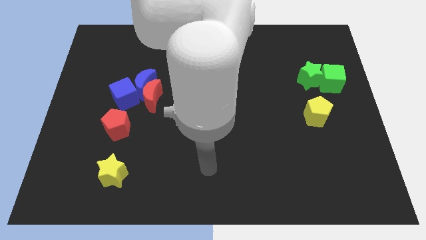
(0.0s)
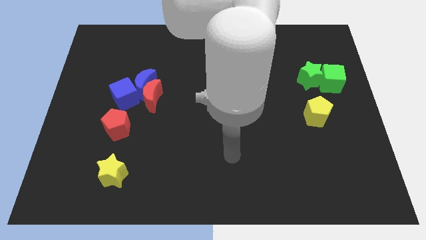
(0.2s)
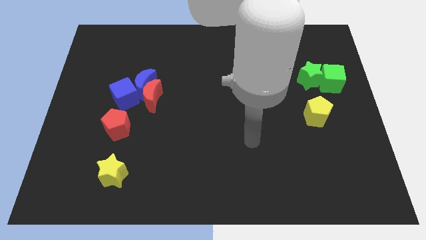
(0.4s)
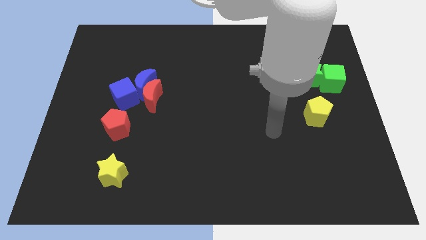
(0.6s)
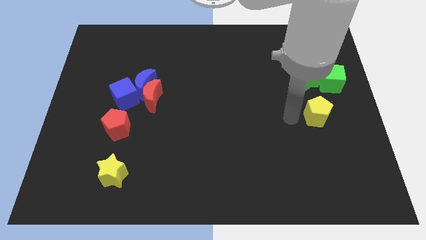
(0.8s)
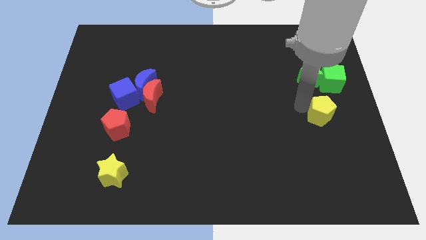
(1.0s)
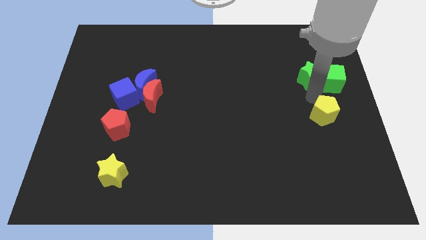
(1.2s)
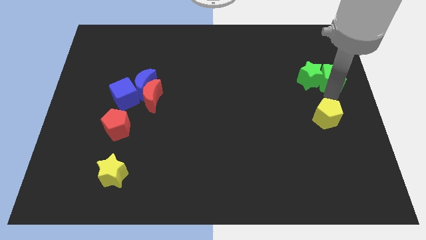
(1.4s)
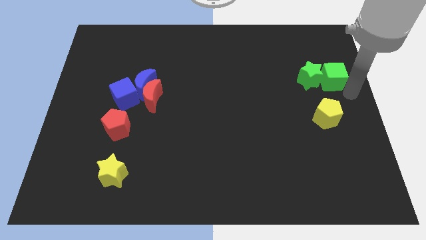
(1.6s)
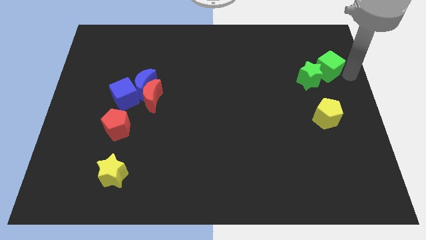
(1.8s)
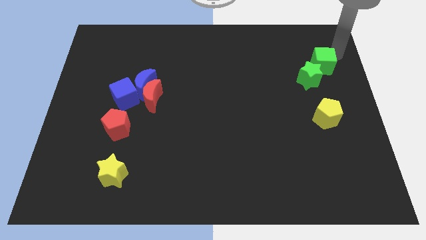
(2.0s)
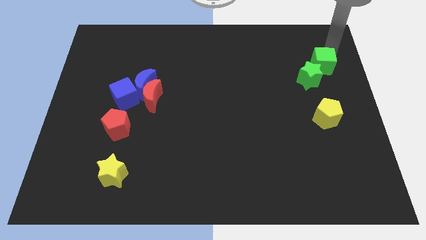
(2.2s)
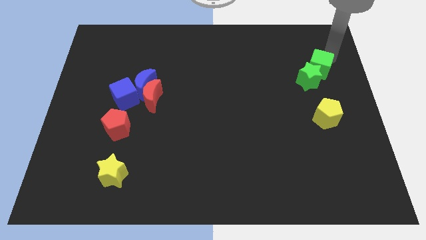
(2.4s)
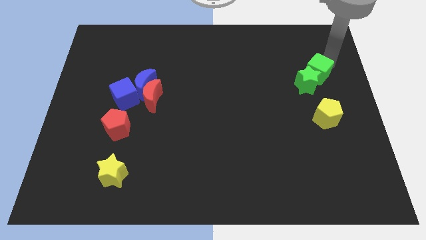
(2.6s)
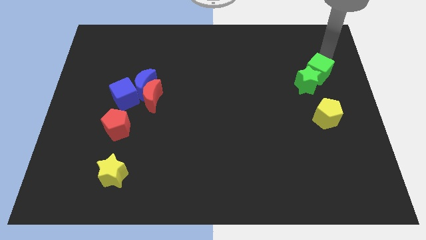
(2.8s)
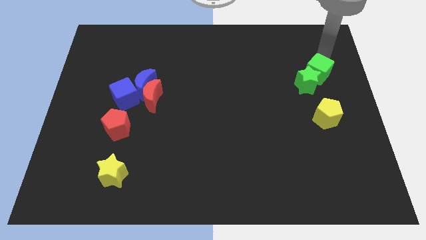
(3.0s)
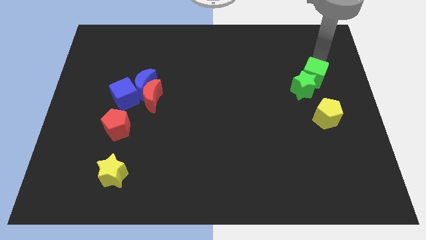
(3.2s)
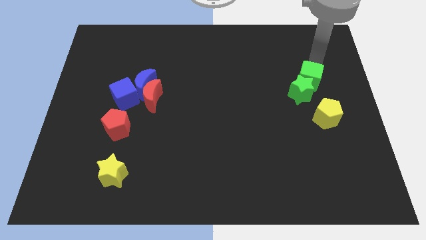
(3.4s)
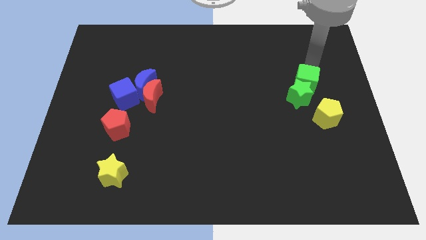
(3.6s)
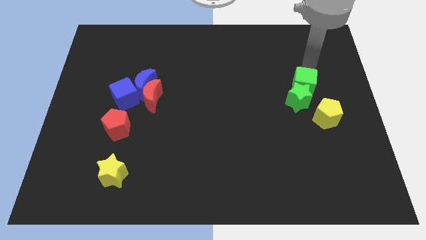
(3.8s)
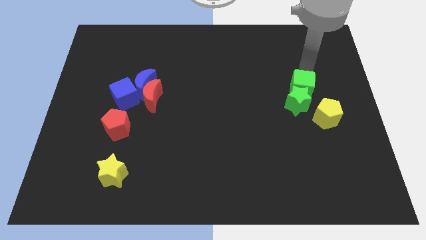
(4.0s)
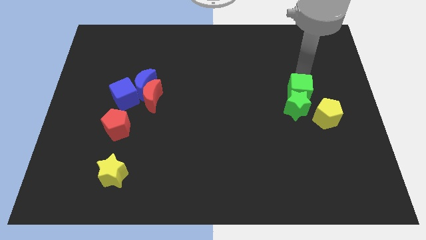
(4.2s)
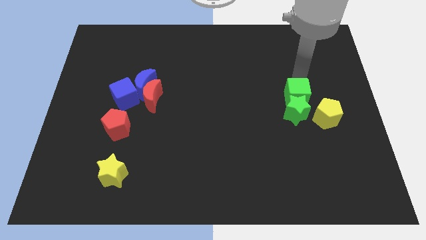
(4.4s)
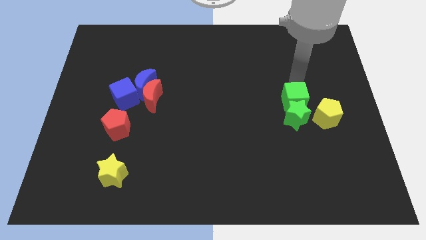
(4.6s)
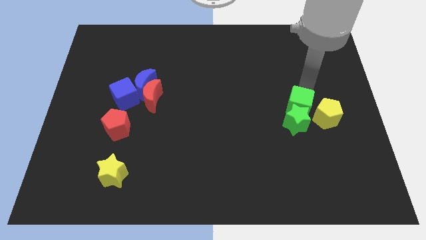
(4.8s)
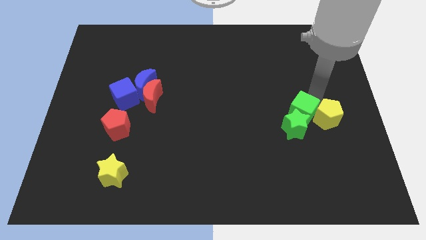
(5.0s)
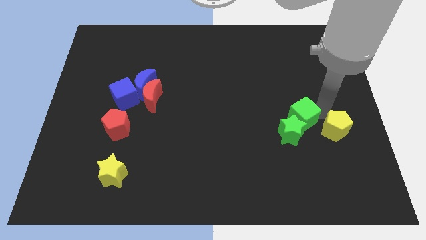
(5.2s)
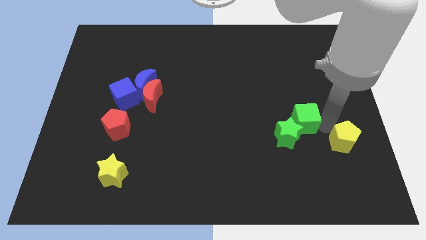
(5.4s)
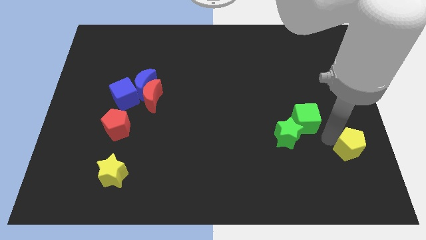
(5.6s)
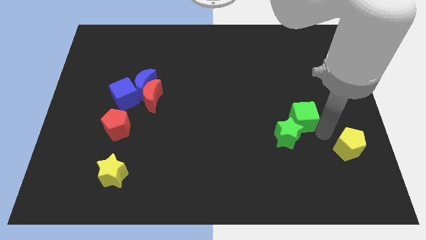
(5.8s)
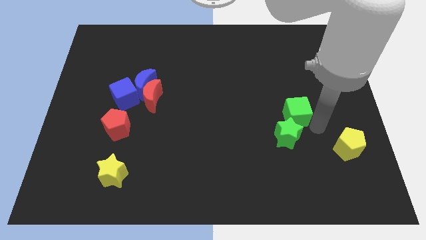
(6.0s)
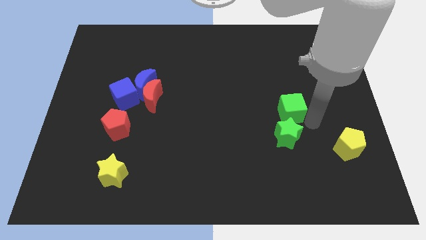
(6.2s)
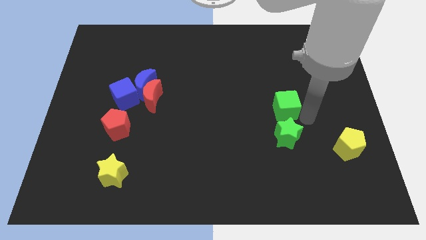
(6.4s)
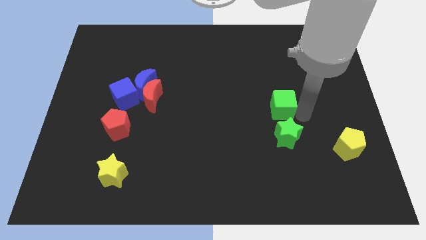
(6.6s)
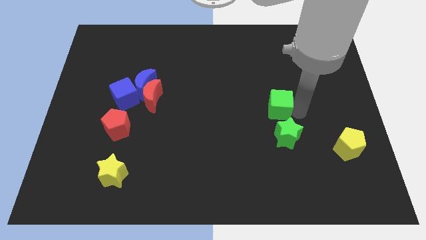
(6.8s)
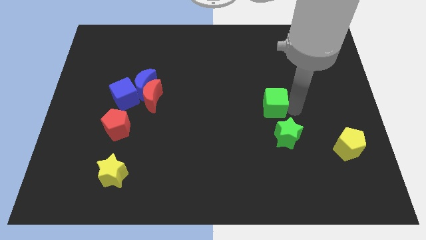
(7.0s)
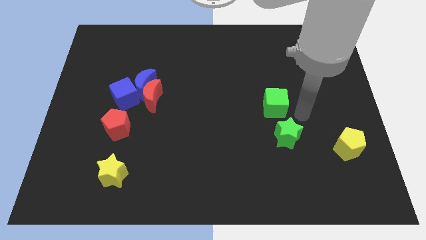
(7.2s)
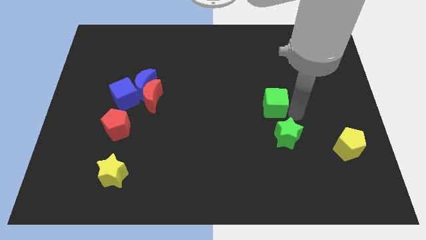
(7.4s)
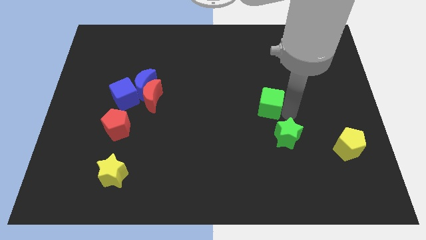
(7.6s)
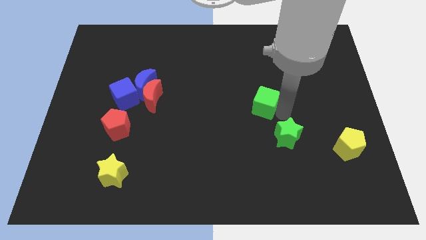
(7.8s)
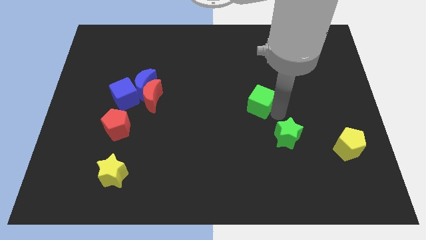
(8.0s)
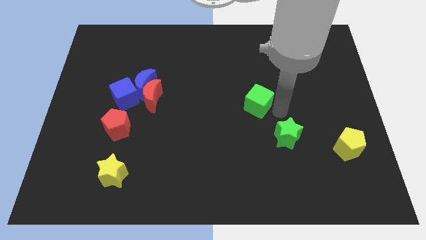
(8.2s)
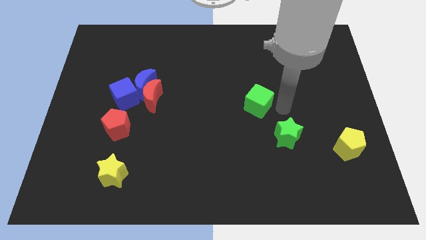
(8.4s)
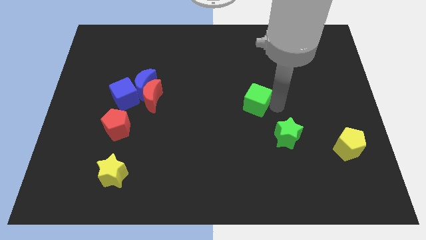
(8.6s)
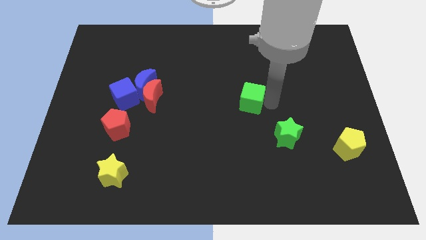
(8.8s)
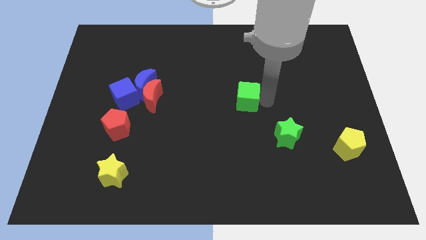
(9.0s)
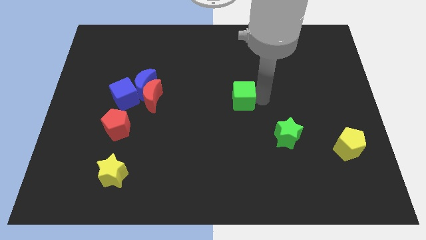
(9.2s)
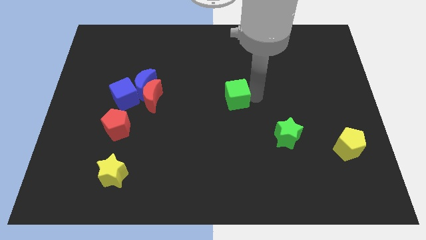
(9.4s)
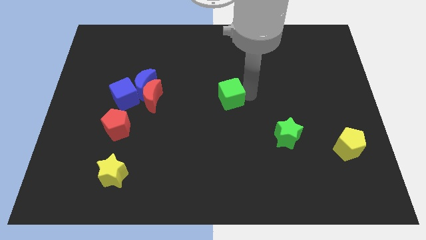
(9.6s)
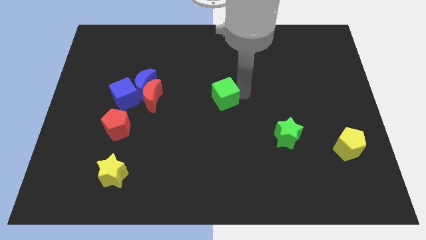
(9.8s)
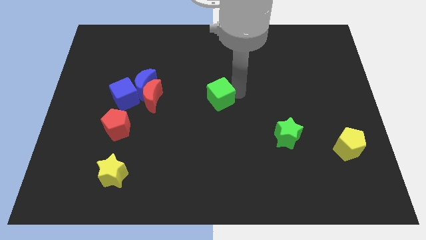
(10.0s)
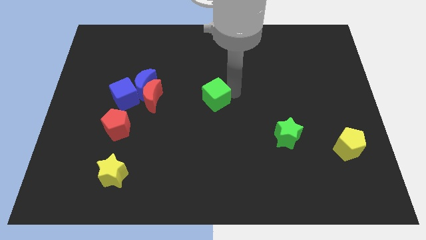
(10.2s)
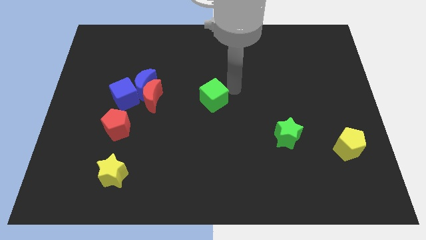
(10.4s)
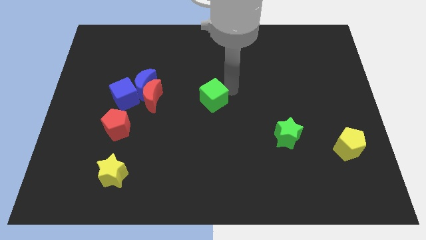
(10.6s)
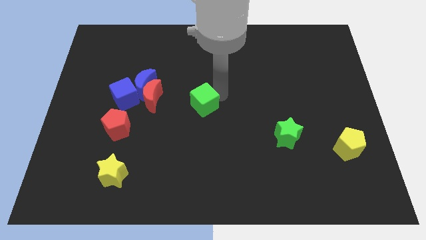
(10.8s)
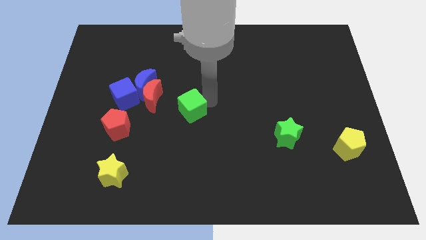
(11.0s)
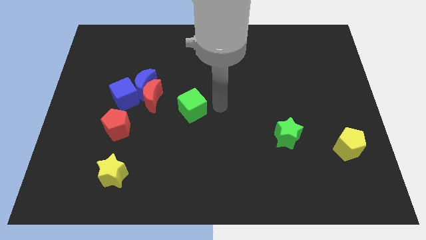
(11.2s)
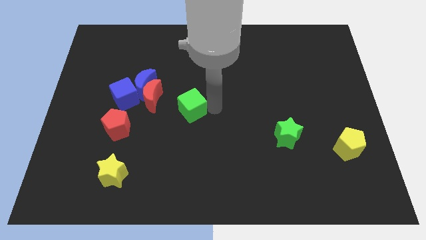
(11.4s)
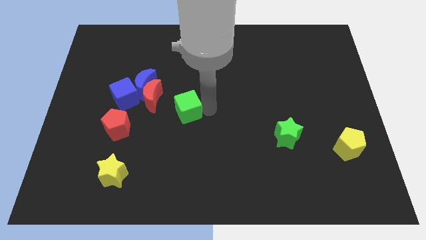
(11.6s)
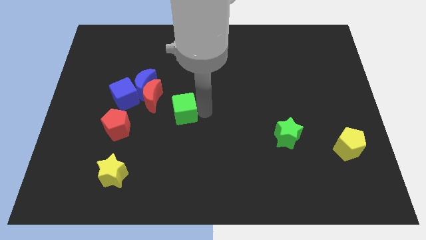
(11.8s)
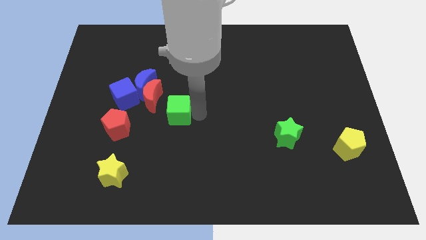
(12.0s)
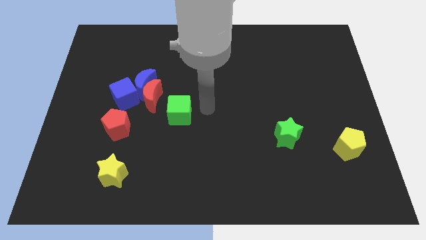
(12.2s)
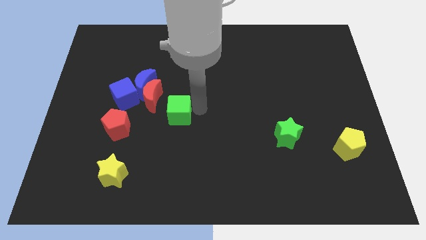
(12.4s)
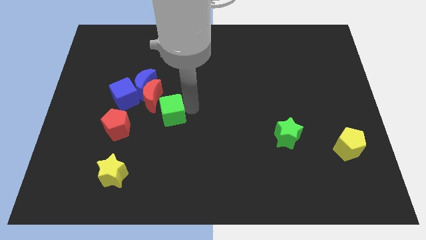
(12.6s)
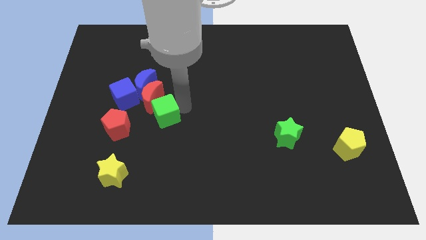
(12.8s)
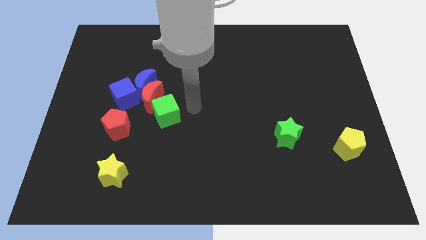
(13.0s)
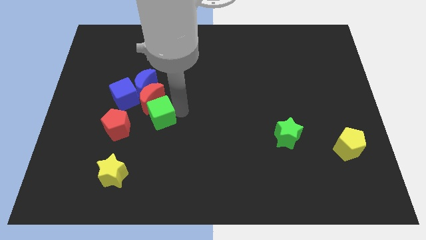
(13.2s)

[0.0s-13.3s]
slide the green cube below the blue moon
